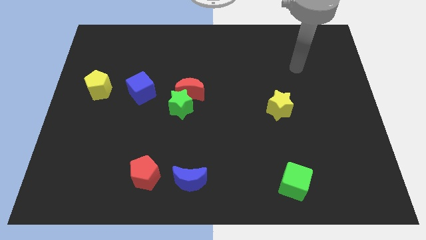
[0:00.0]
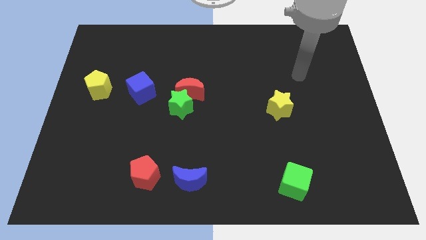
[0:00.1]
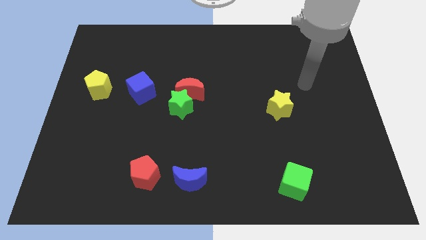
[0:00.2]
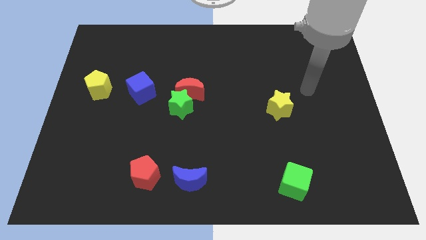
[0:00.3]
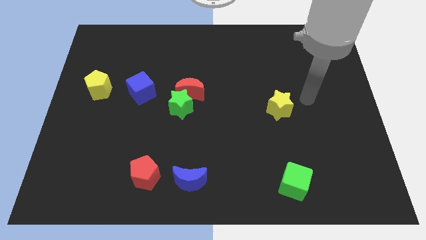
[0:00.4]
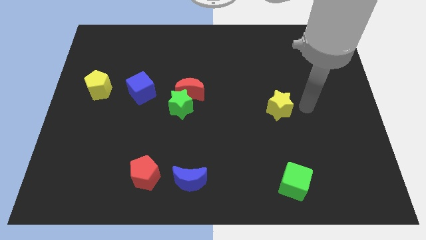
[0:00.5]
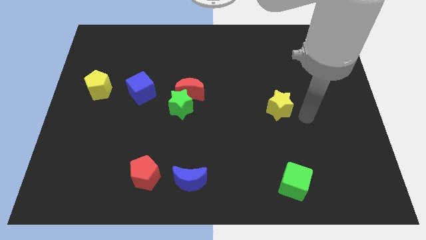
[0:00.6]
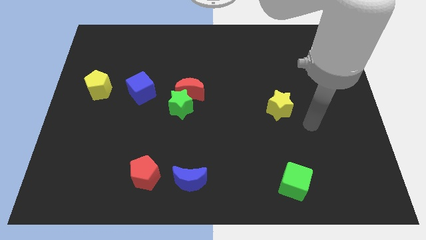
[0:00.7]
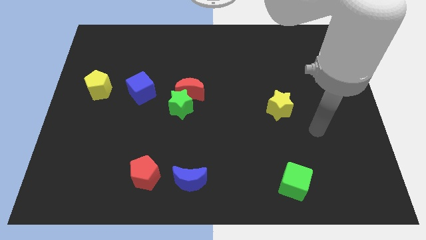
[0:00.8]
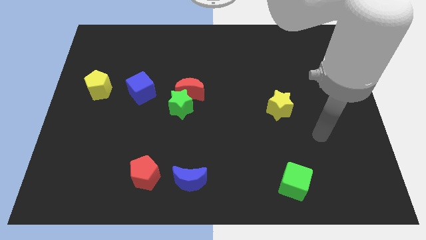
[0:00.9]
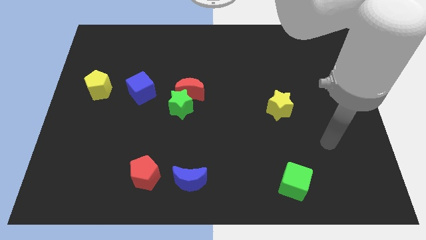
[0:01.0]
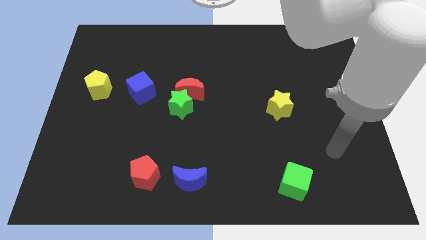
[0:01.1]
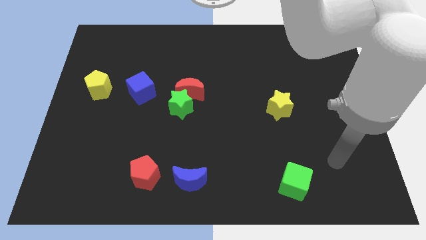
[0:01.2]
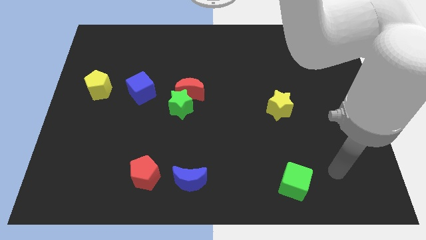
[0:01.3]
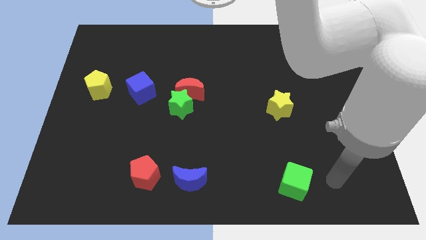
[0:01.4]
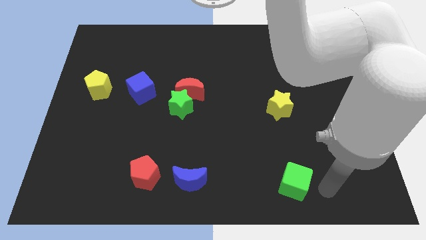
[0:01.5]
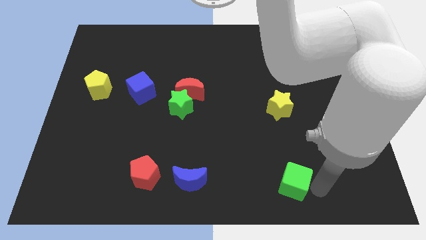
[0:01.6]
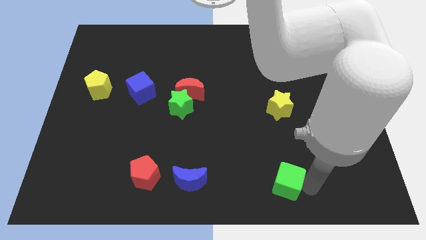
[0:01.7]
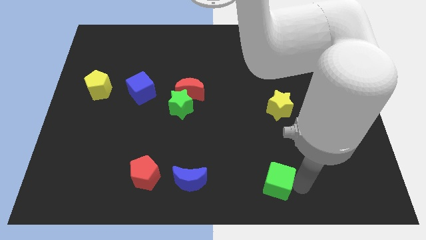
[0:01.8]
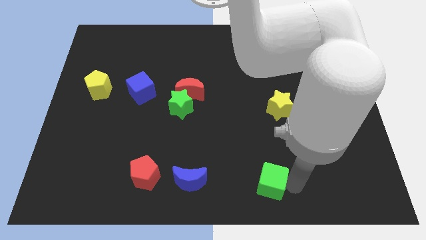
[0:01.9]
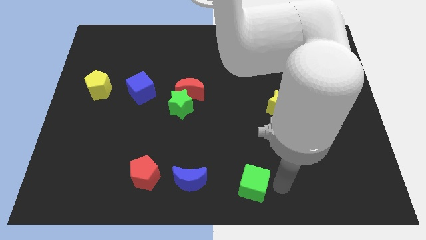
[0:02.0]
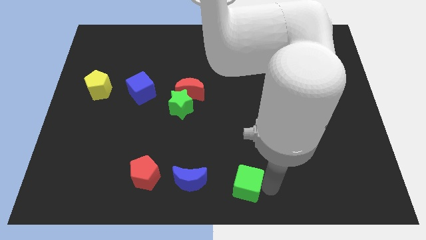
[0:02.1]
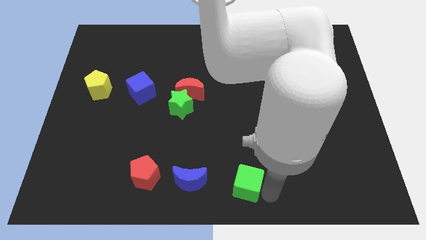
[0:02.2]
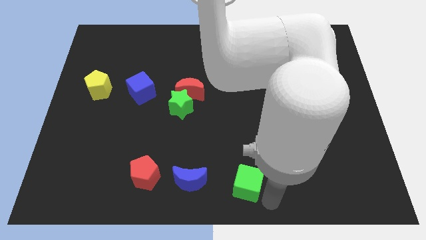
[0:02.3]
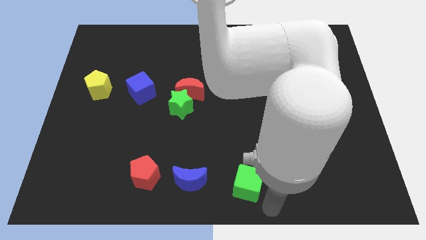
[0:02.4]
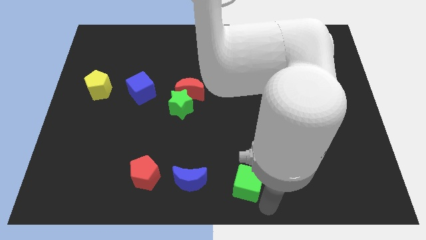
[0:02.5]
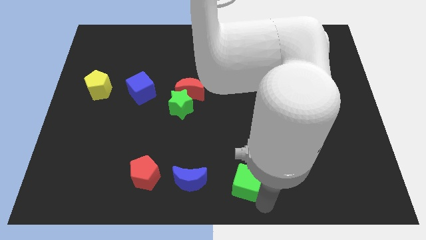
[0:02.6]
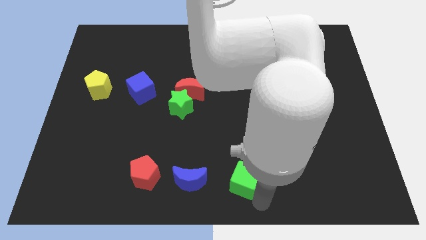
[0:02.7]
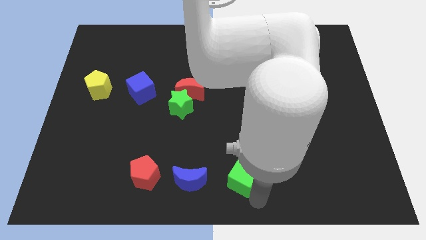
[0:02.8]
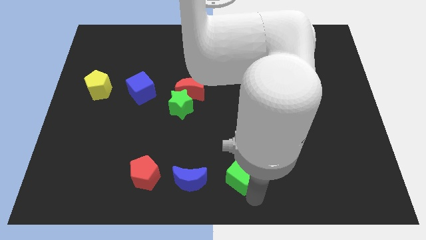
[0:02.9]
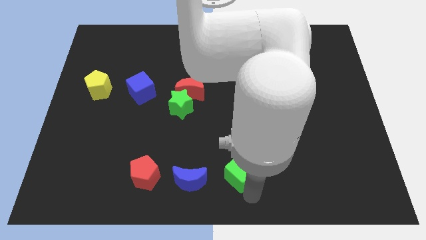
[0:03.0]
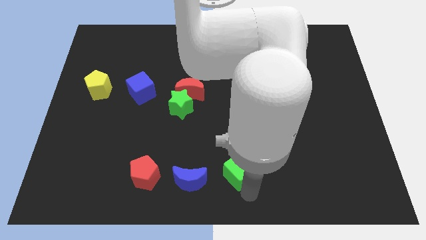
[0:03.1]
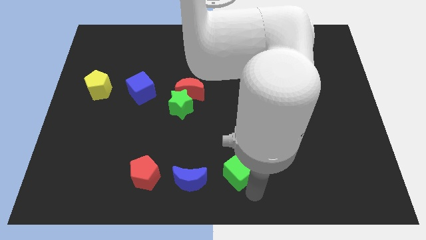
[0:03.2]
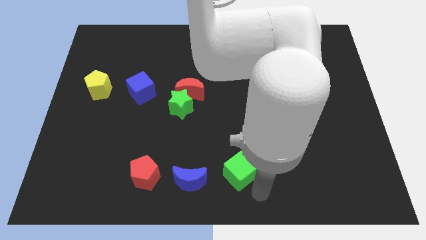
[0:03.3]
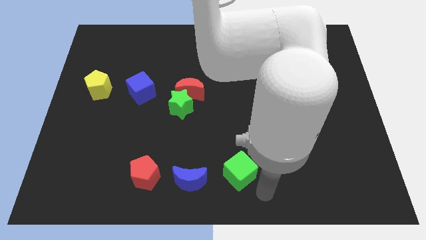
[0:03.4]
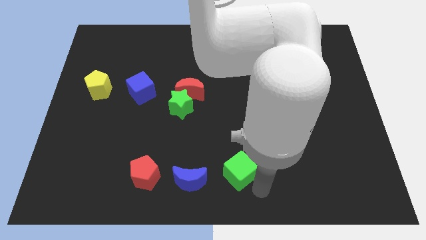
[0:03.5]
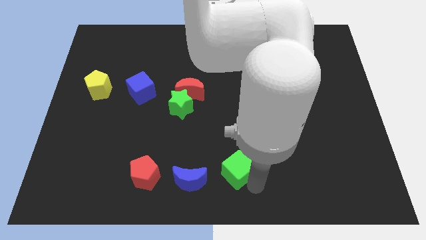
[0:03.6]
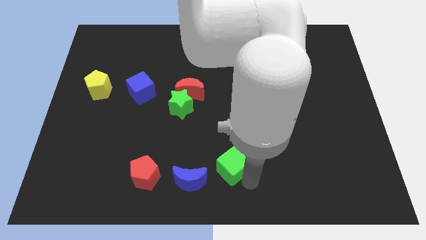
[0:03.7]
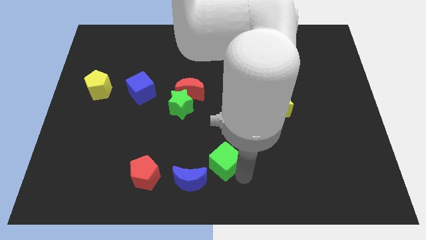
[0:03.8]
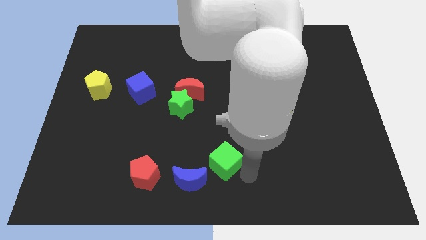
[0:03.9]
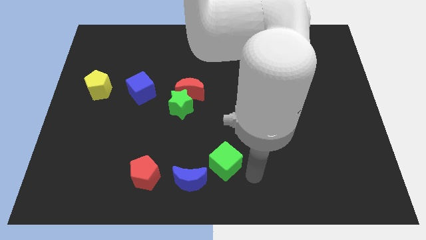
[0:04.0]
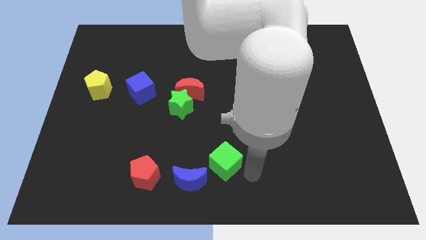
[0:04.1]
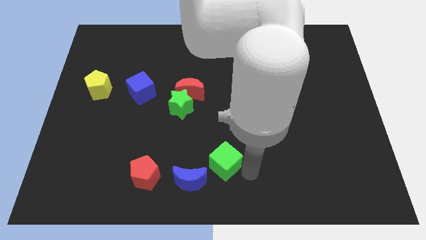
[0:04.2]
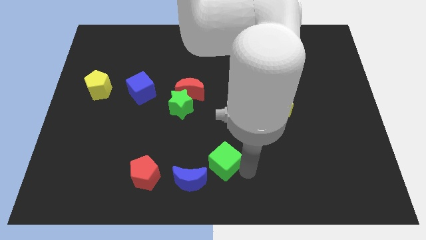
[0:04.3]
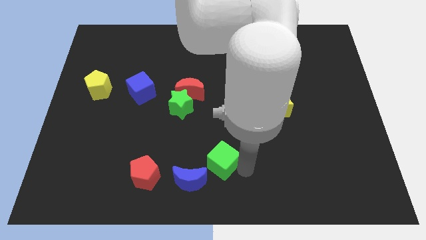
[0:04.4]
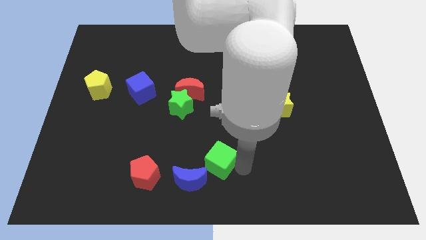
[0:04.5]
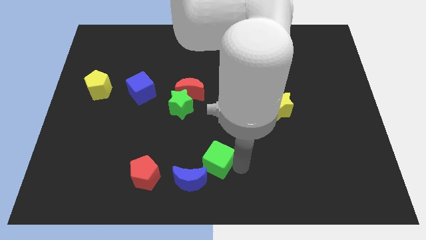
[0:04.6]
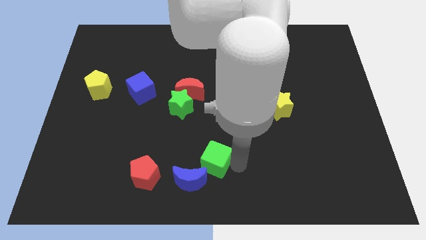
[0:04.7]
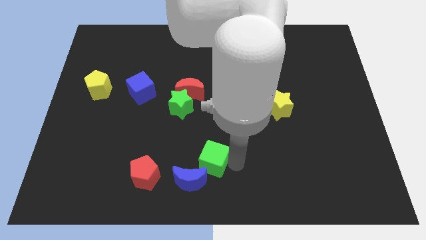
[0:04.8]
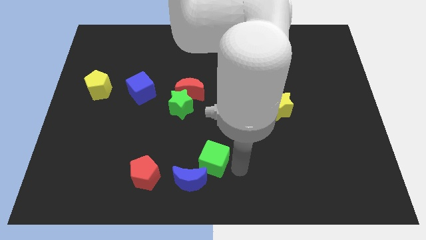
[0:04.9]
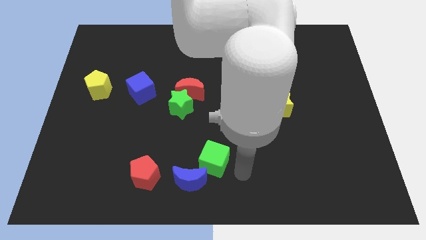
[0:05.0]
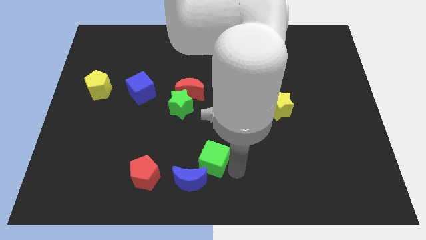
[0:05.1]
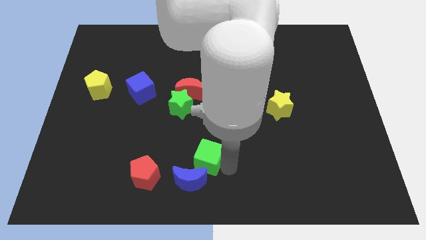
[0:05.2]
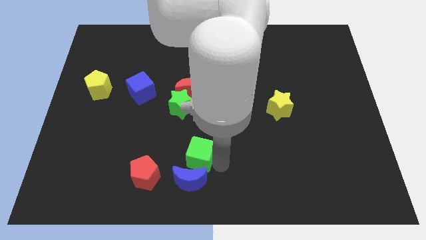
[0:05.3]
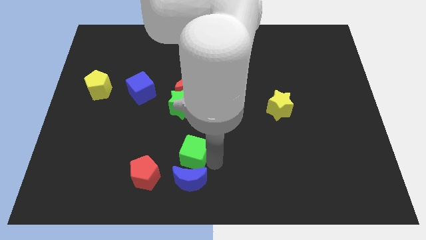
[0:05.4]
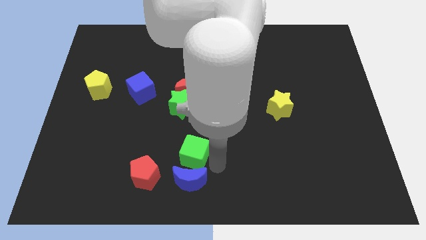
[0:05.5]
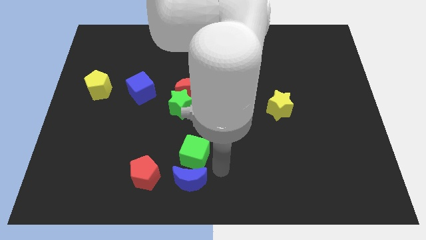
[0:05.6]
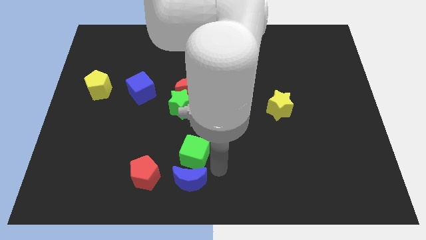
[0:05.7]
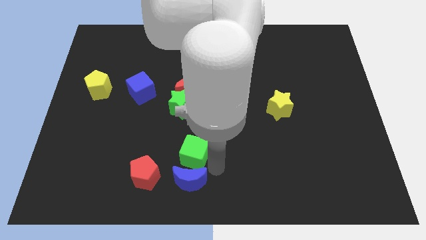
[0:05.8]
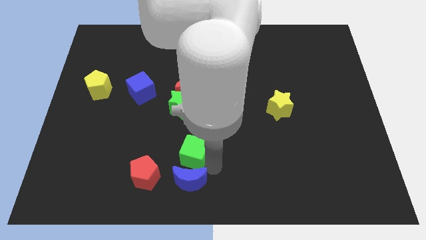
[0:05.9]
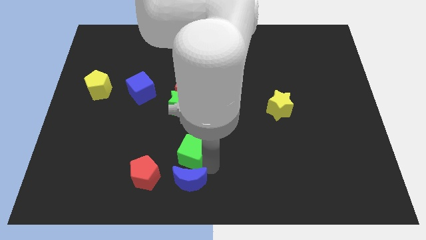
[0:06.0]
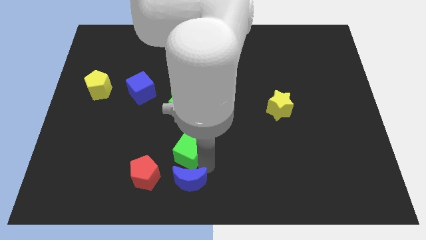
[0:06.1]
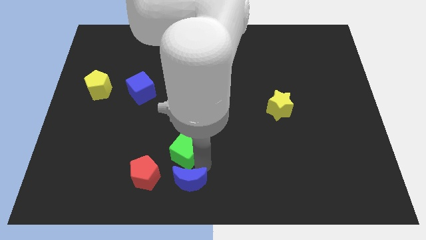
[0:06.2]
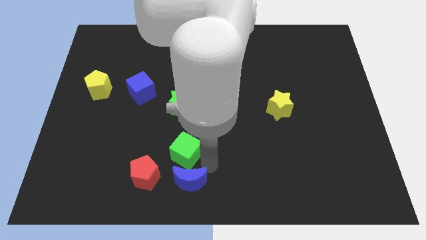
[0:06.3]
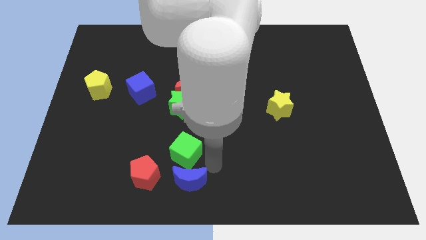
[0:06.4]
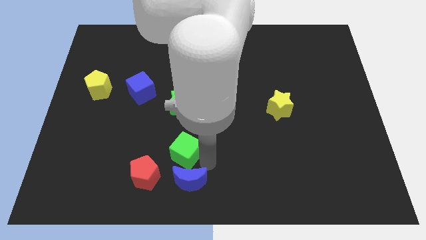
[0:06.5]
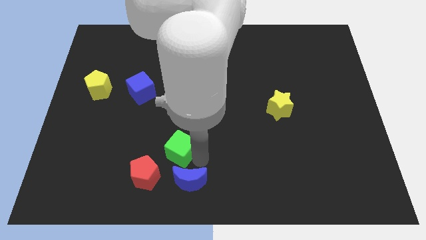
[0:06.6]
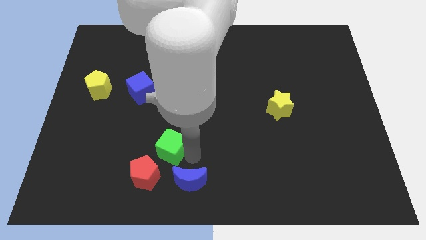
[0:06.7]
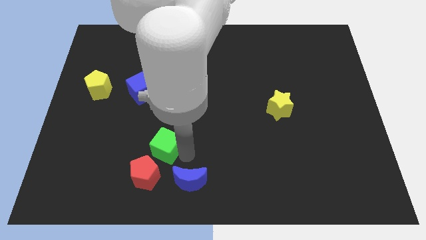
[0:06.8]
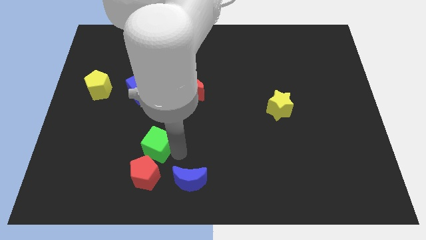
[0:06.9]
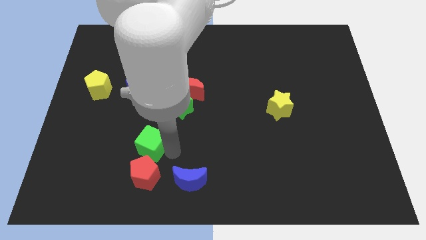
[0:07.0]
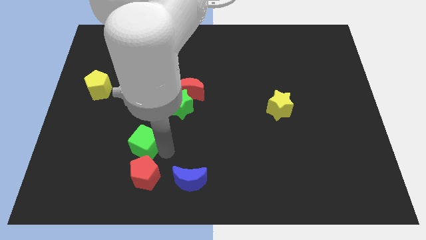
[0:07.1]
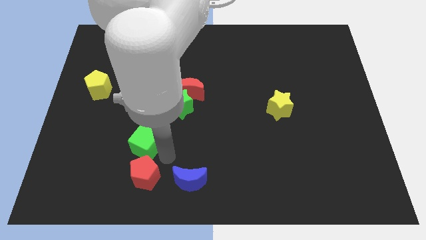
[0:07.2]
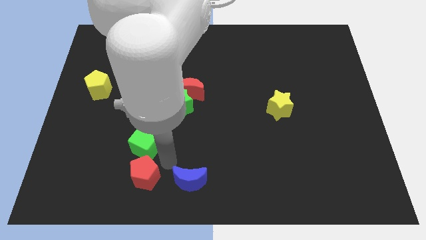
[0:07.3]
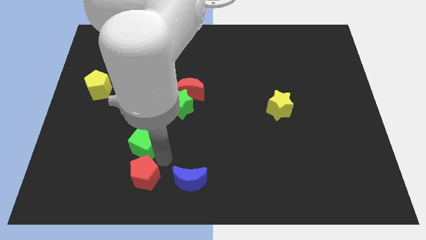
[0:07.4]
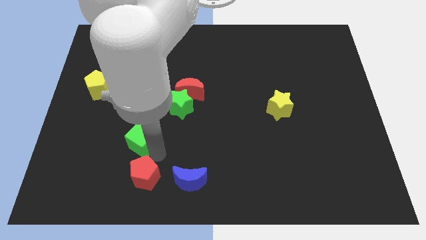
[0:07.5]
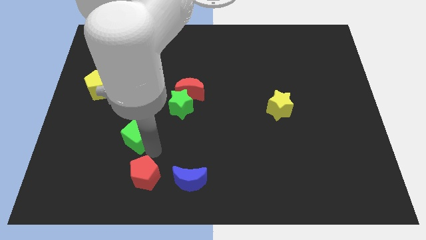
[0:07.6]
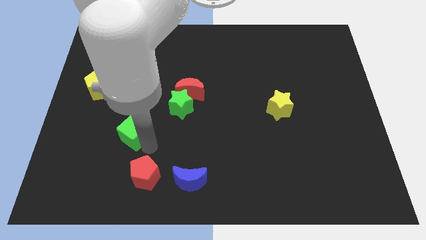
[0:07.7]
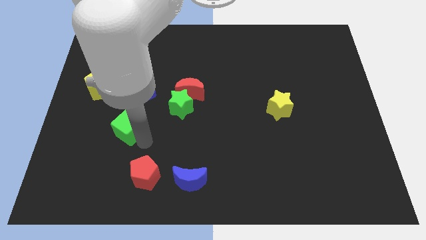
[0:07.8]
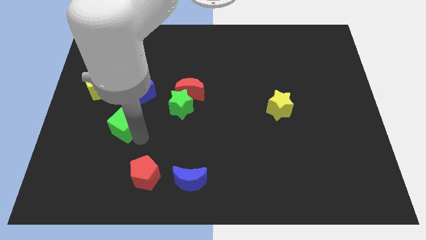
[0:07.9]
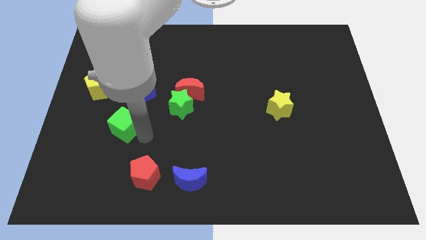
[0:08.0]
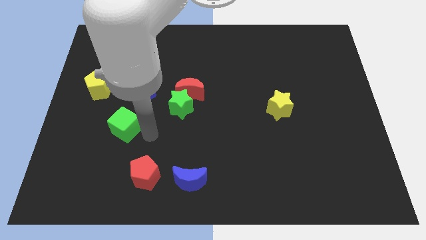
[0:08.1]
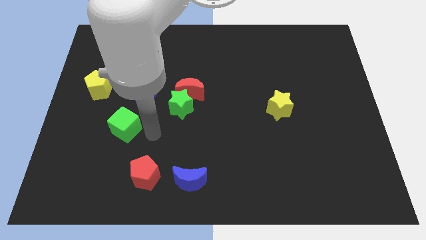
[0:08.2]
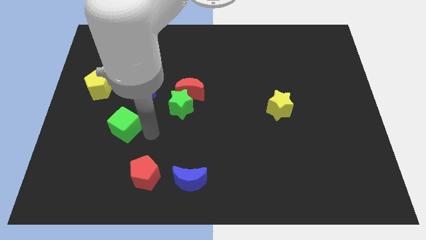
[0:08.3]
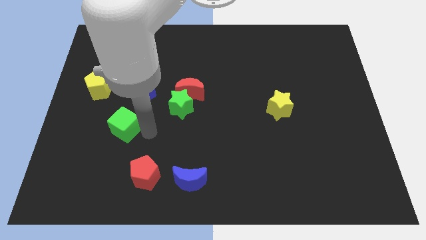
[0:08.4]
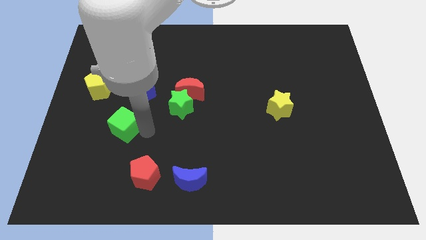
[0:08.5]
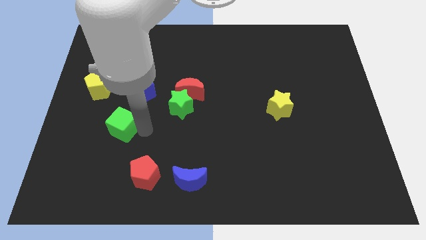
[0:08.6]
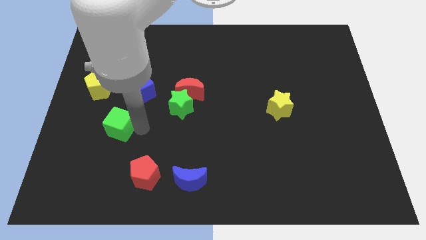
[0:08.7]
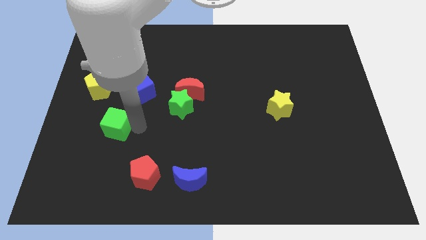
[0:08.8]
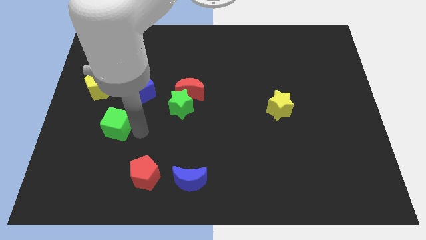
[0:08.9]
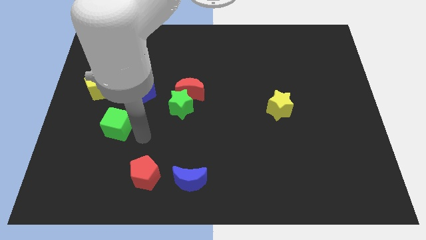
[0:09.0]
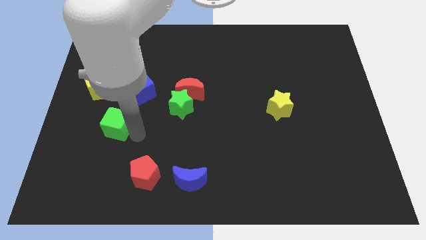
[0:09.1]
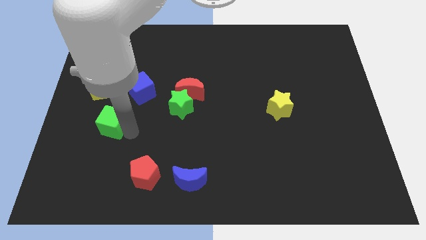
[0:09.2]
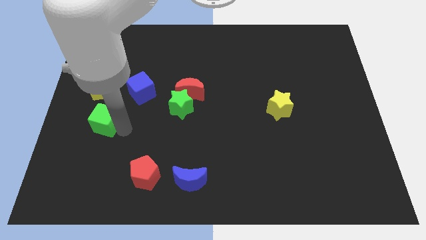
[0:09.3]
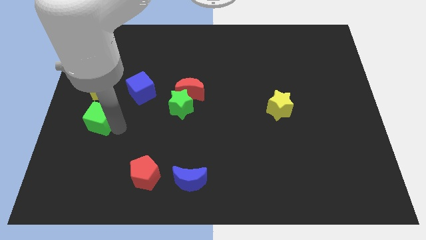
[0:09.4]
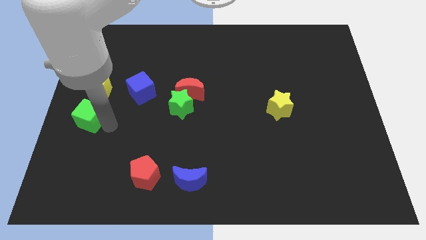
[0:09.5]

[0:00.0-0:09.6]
push the green cube to the left side
